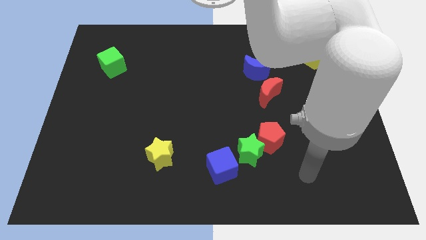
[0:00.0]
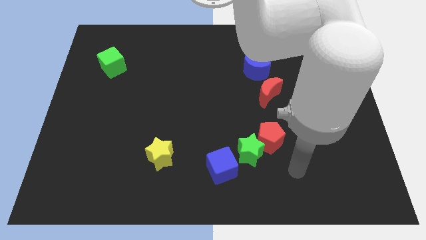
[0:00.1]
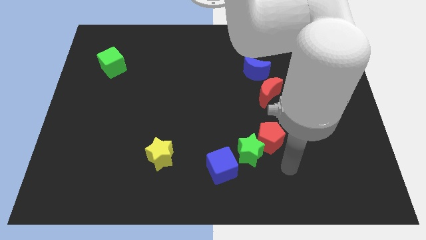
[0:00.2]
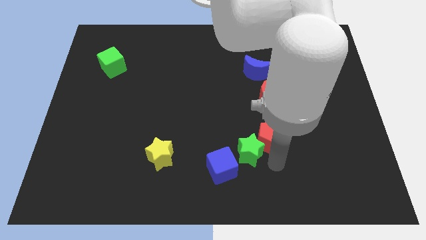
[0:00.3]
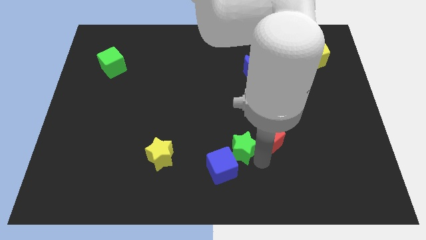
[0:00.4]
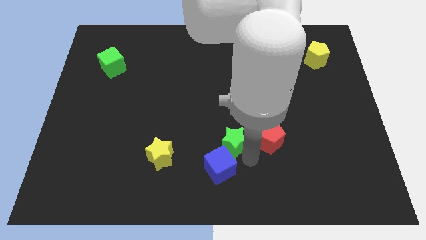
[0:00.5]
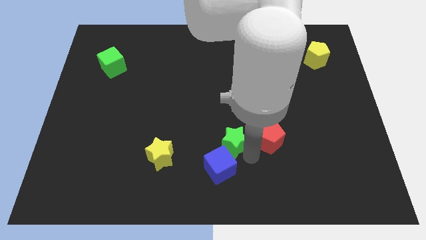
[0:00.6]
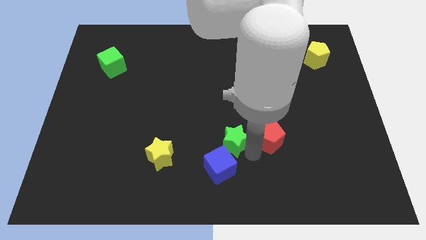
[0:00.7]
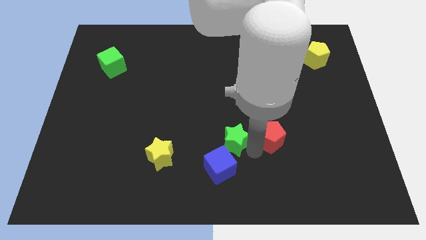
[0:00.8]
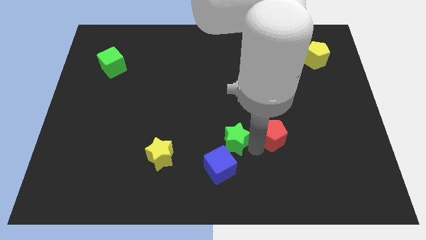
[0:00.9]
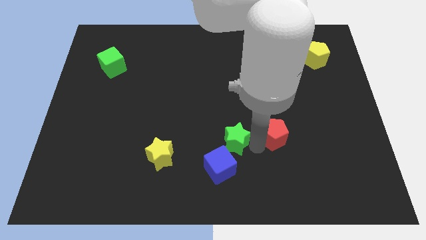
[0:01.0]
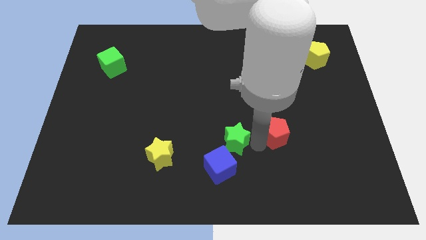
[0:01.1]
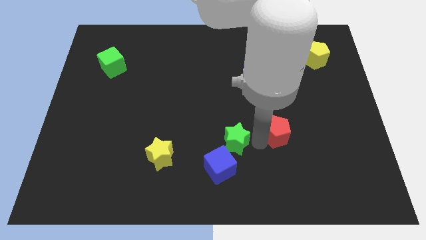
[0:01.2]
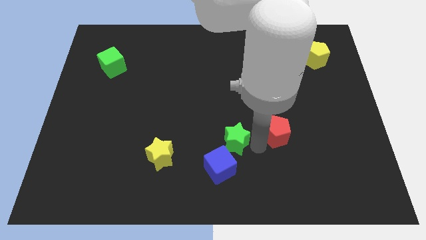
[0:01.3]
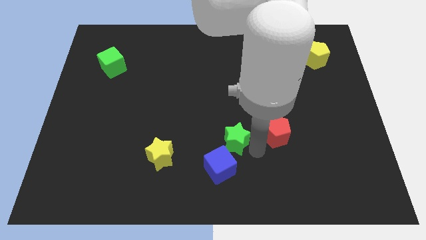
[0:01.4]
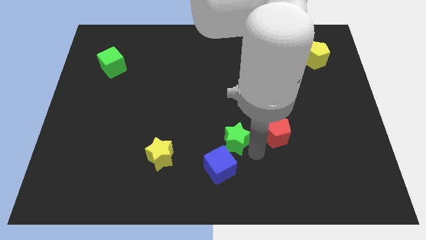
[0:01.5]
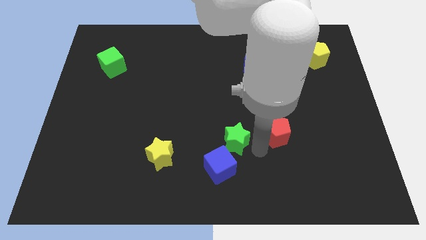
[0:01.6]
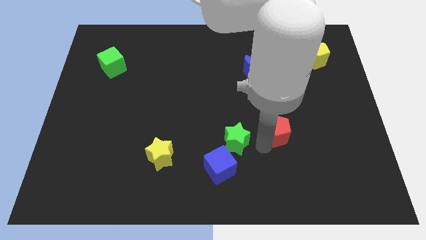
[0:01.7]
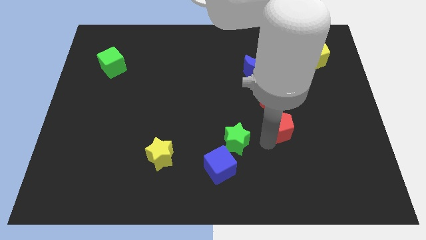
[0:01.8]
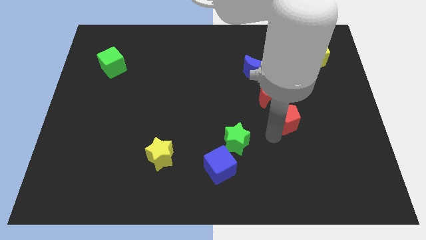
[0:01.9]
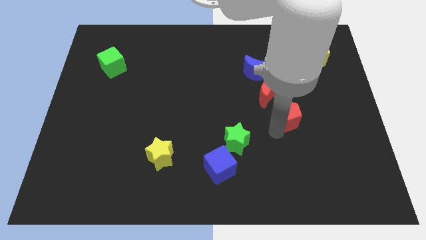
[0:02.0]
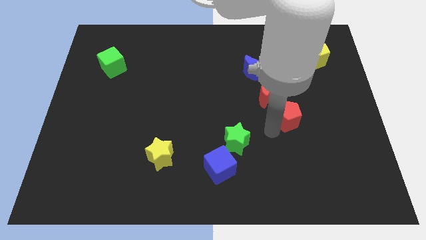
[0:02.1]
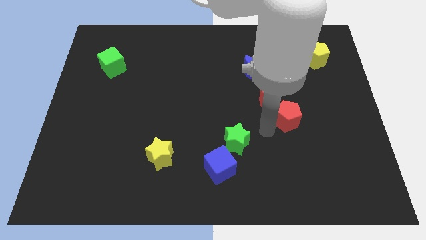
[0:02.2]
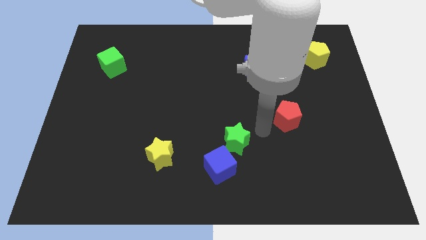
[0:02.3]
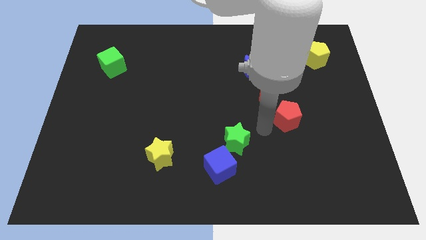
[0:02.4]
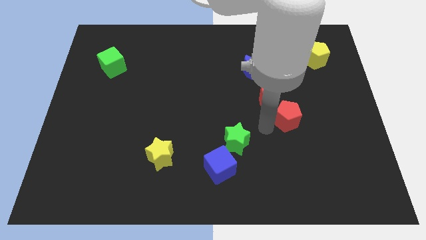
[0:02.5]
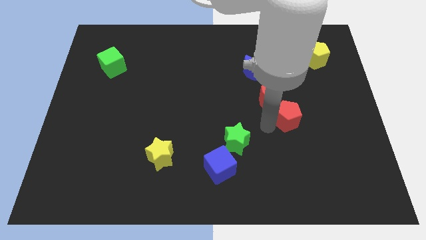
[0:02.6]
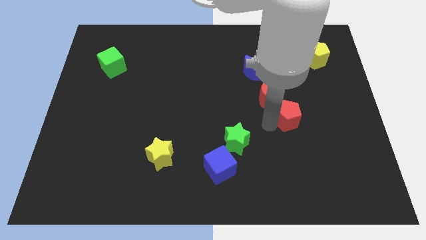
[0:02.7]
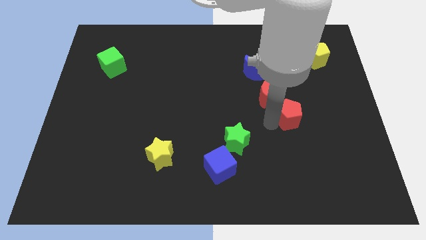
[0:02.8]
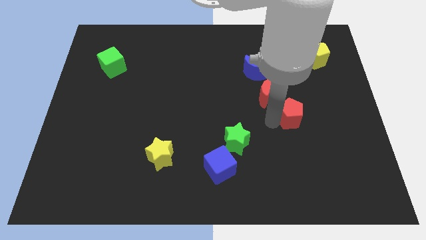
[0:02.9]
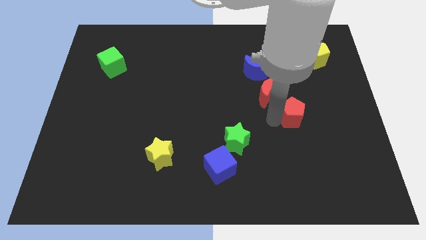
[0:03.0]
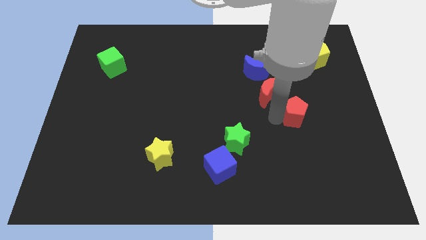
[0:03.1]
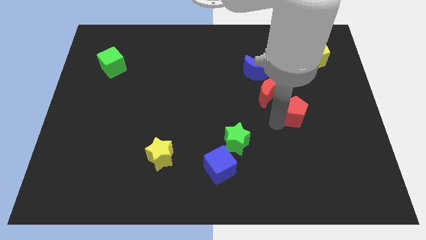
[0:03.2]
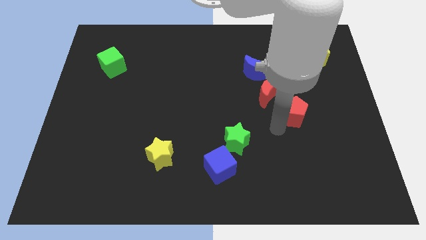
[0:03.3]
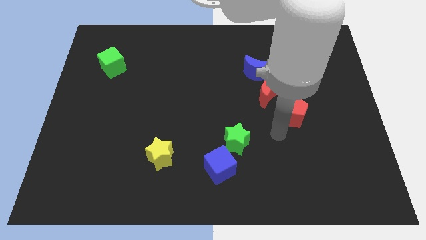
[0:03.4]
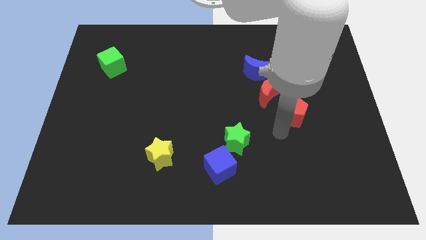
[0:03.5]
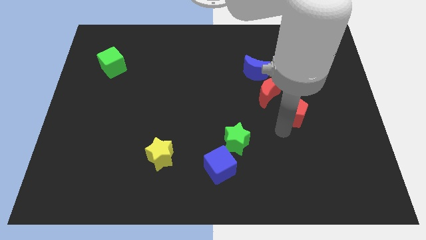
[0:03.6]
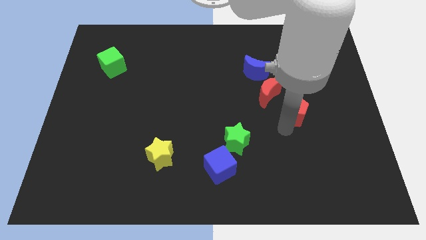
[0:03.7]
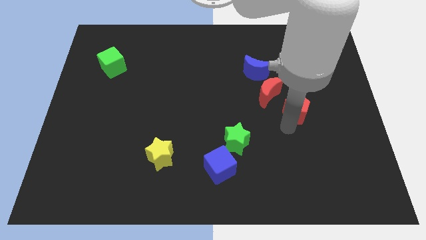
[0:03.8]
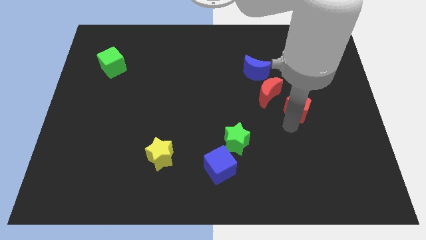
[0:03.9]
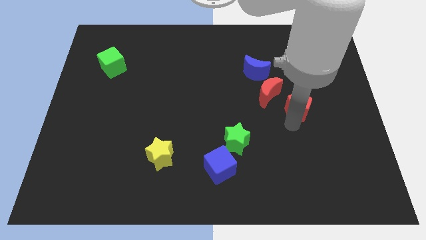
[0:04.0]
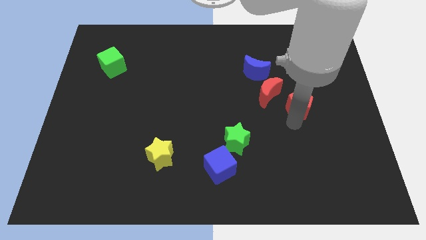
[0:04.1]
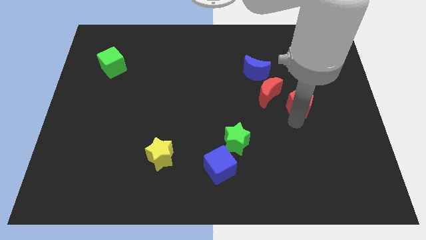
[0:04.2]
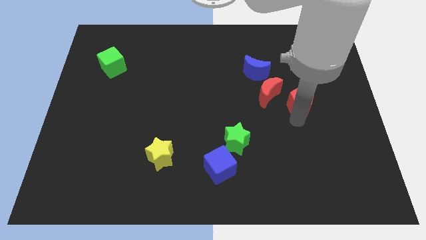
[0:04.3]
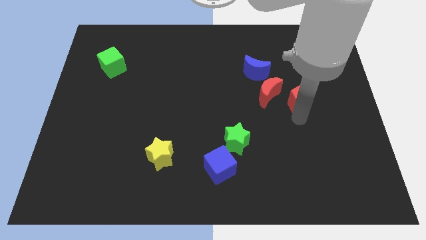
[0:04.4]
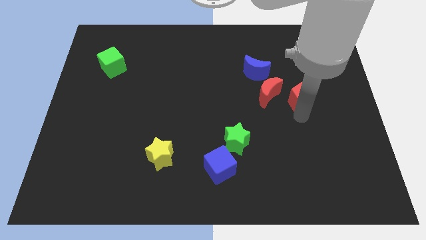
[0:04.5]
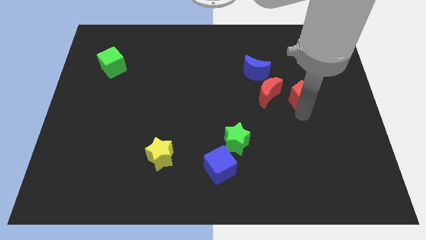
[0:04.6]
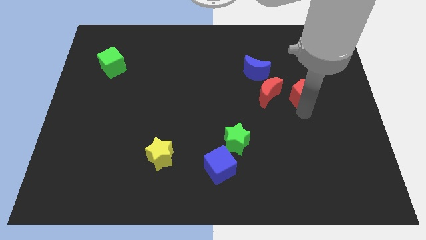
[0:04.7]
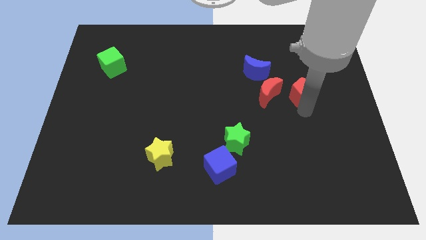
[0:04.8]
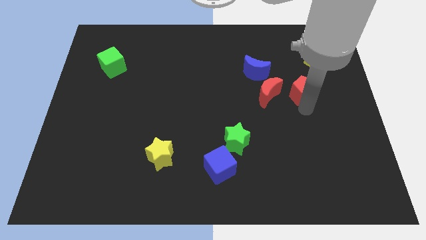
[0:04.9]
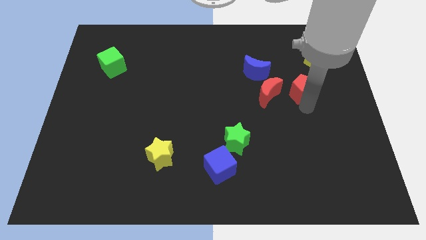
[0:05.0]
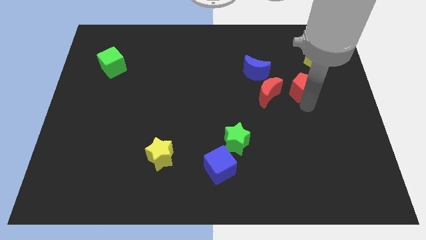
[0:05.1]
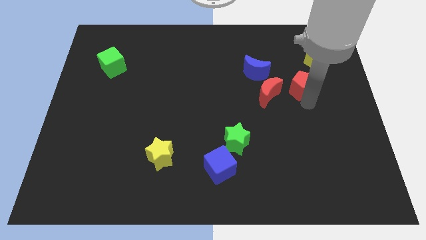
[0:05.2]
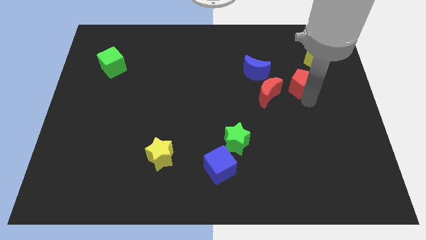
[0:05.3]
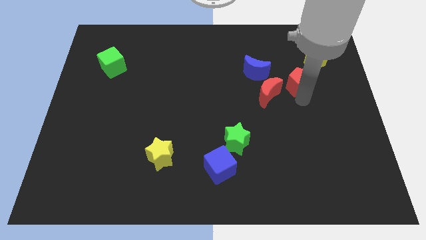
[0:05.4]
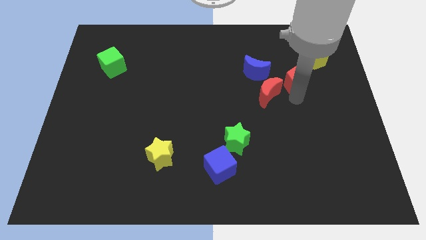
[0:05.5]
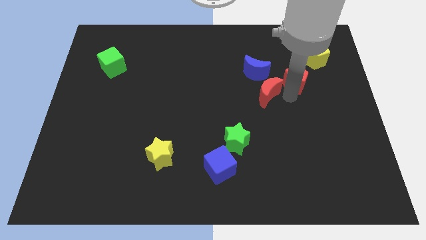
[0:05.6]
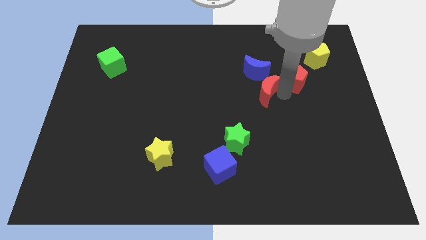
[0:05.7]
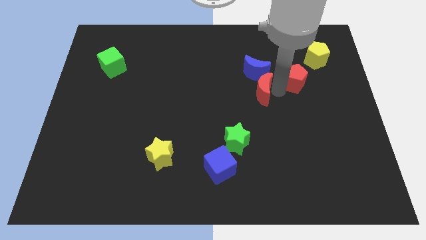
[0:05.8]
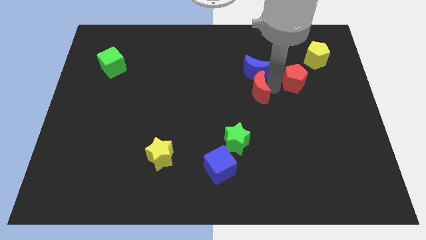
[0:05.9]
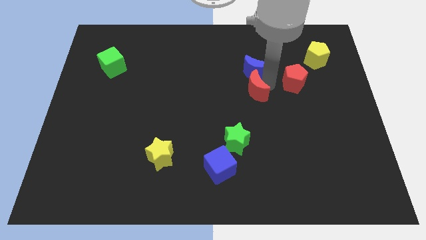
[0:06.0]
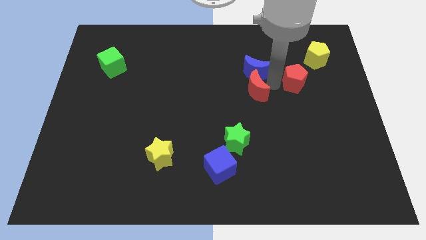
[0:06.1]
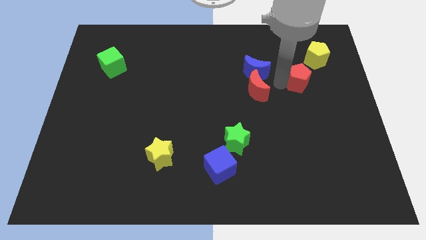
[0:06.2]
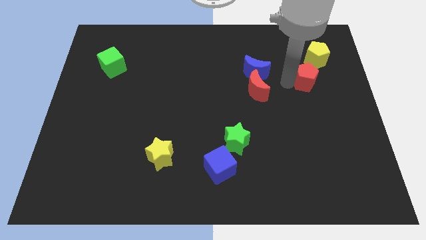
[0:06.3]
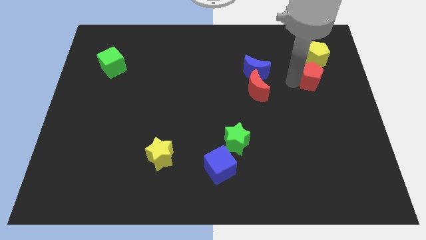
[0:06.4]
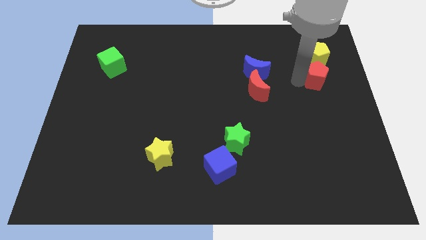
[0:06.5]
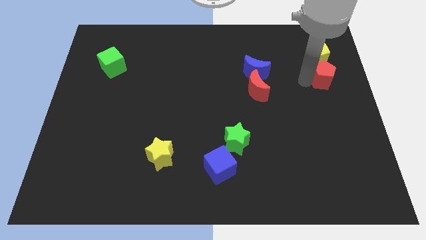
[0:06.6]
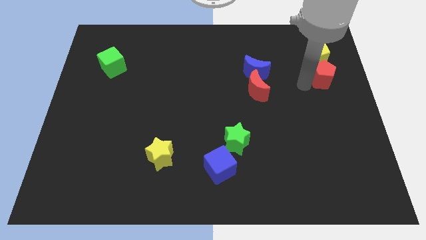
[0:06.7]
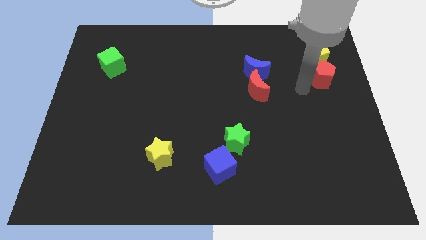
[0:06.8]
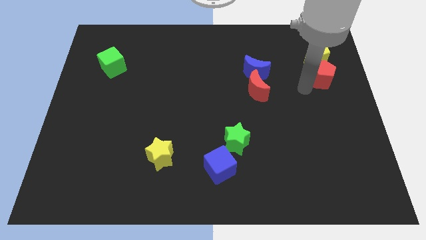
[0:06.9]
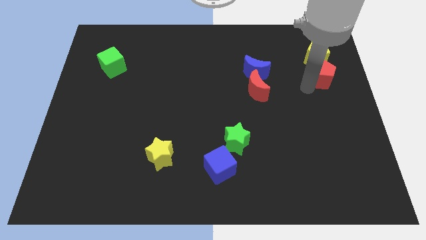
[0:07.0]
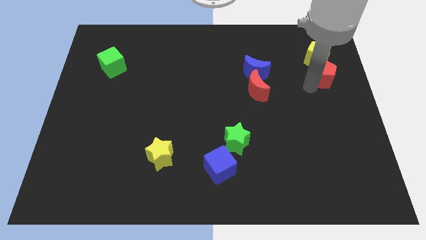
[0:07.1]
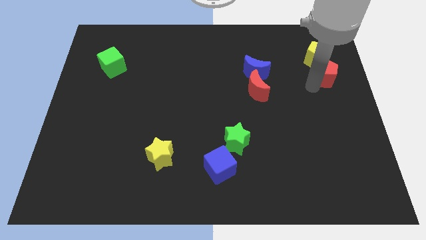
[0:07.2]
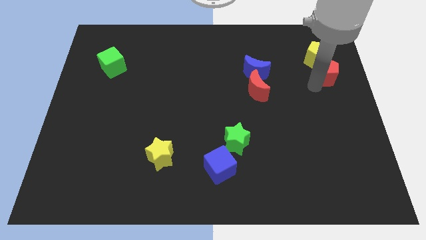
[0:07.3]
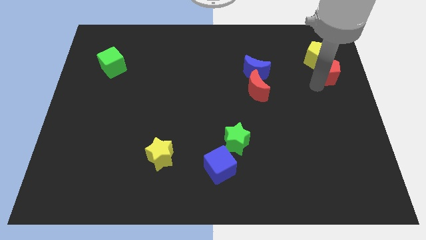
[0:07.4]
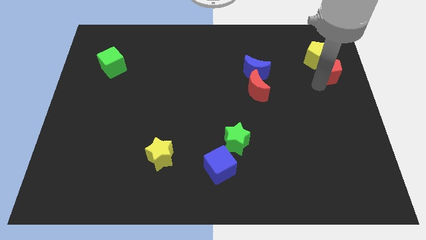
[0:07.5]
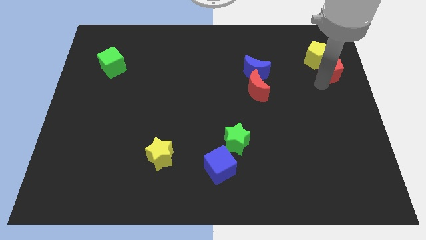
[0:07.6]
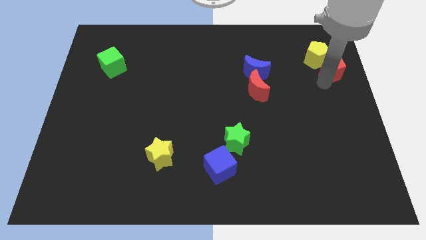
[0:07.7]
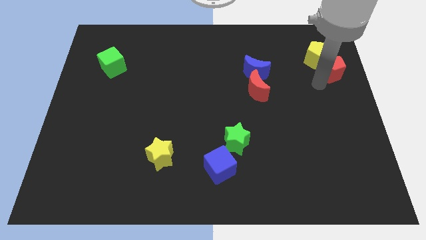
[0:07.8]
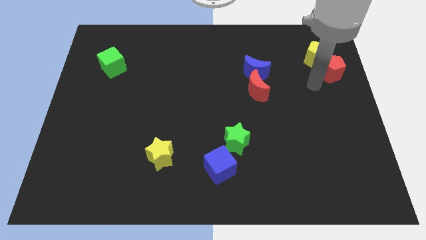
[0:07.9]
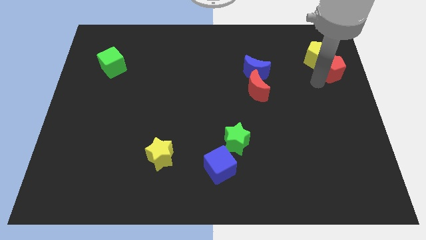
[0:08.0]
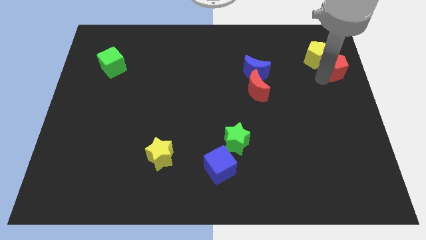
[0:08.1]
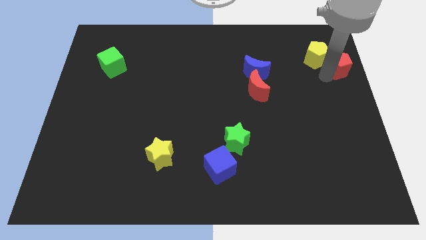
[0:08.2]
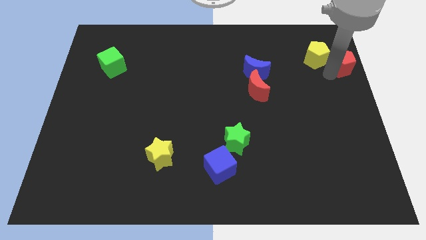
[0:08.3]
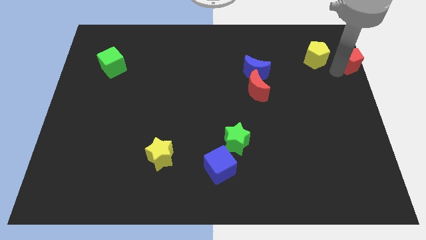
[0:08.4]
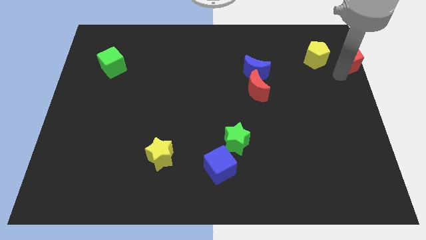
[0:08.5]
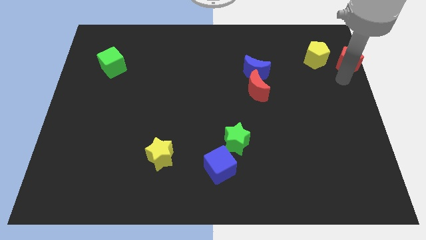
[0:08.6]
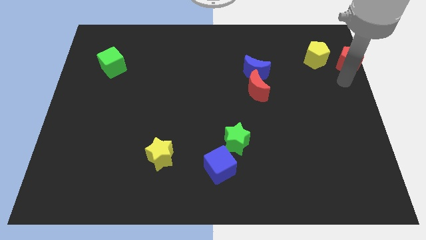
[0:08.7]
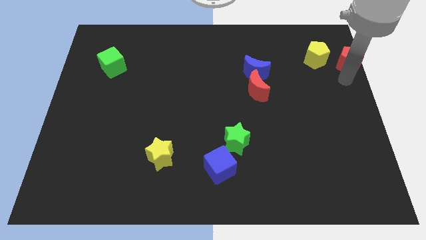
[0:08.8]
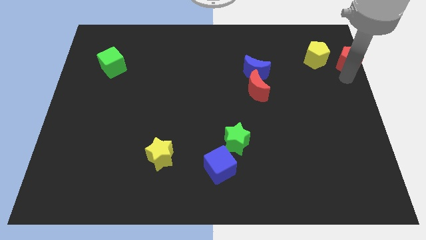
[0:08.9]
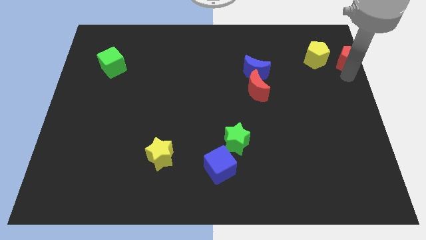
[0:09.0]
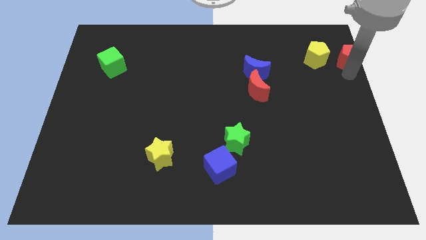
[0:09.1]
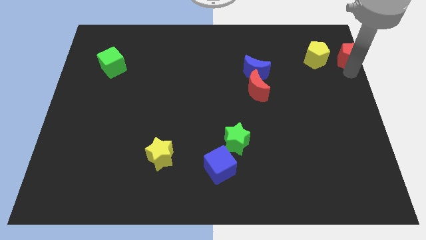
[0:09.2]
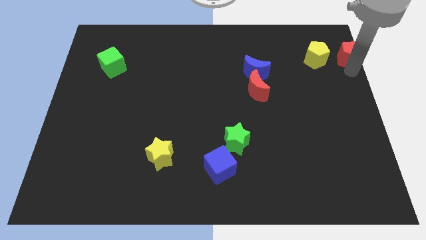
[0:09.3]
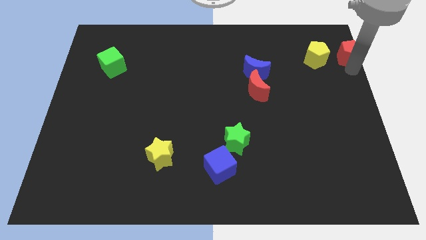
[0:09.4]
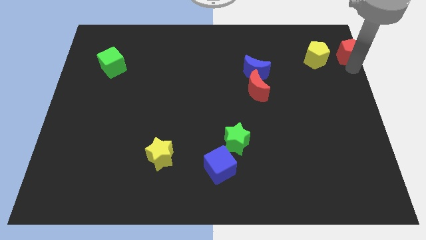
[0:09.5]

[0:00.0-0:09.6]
move the red pentagon to the top right
